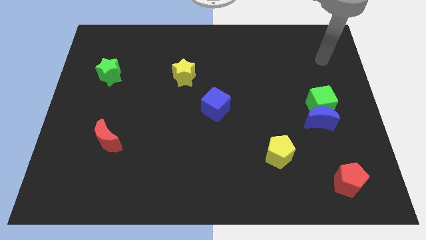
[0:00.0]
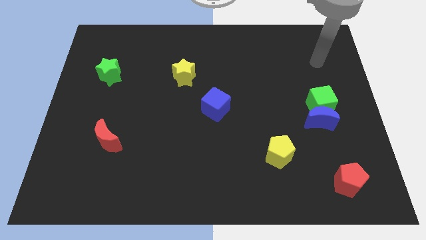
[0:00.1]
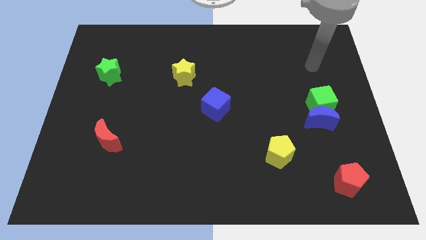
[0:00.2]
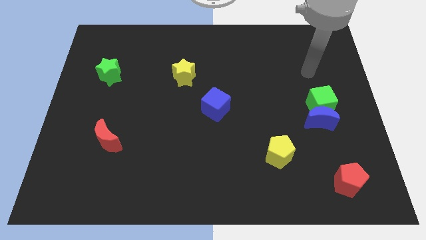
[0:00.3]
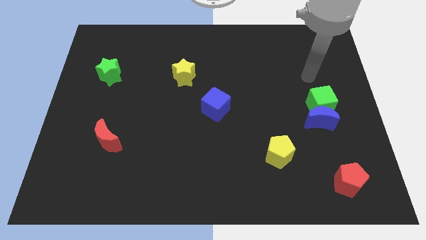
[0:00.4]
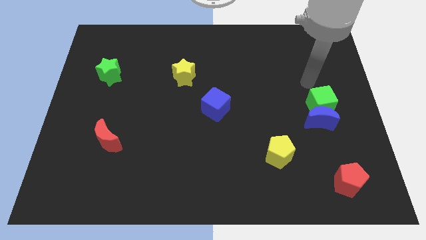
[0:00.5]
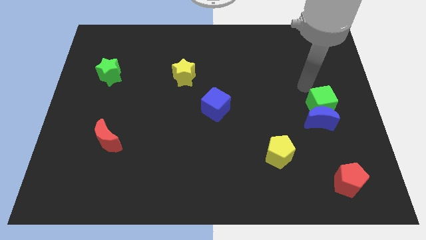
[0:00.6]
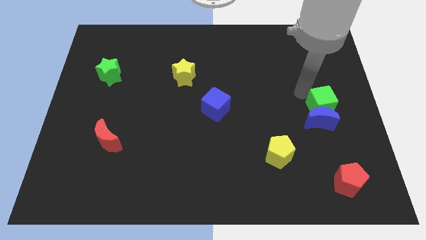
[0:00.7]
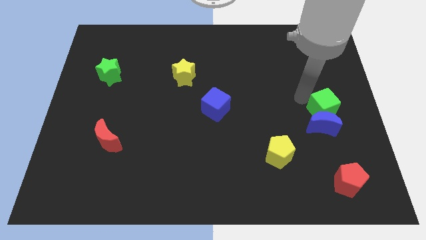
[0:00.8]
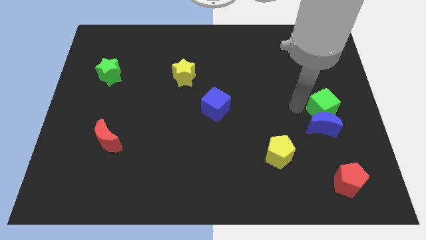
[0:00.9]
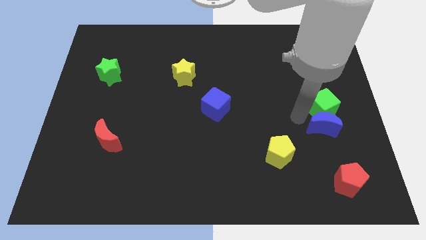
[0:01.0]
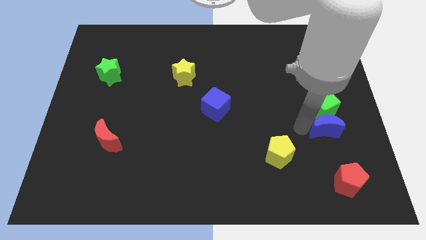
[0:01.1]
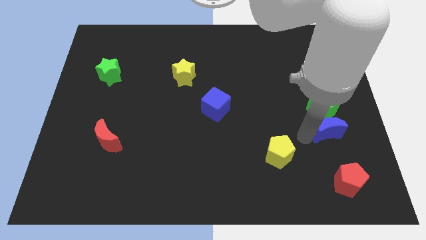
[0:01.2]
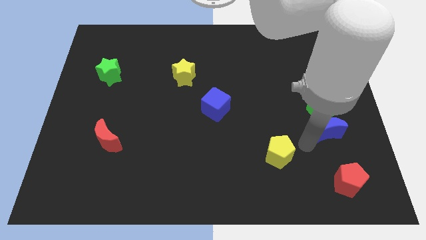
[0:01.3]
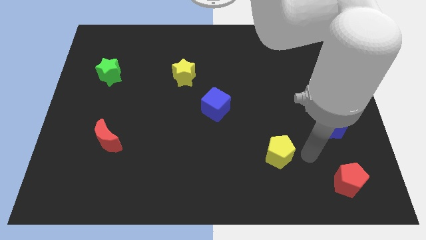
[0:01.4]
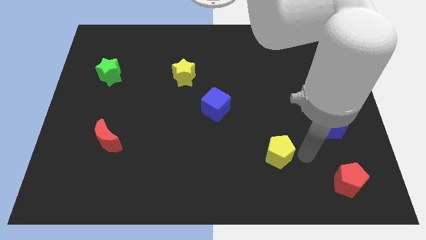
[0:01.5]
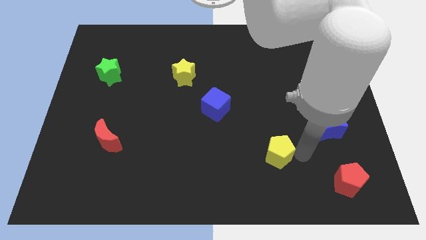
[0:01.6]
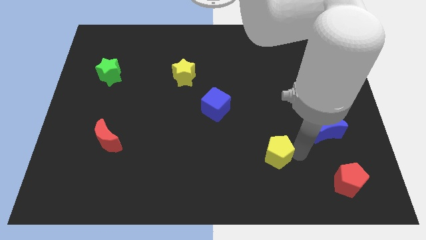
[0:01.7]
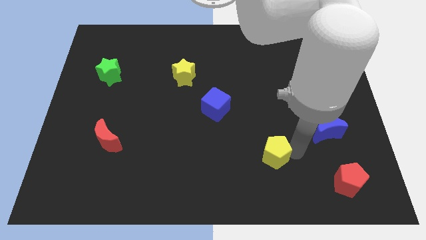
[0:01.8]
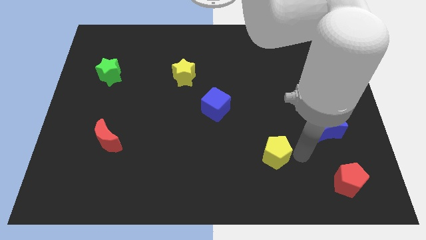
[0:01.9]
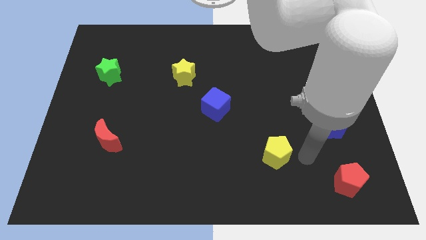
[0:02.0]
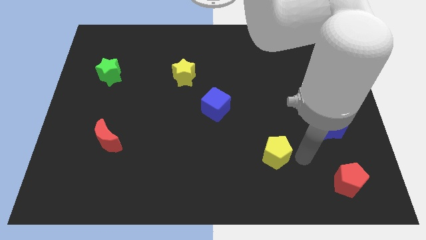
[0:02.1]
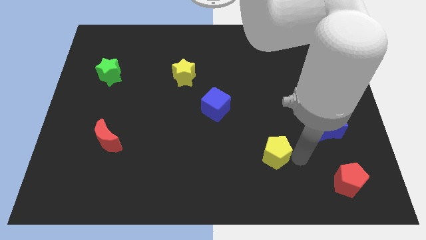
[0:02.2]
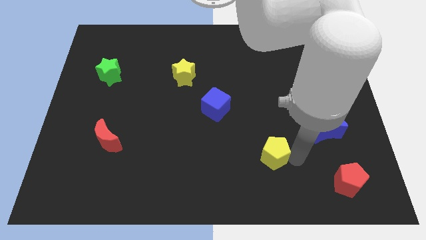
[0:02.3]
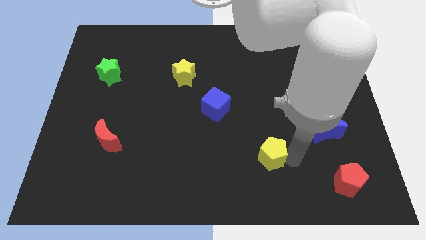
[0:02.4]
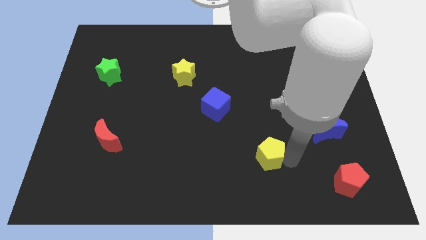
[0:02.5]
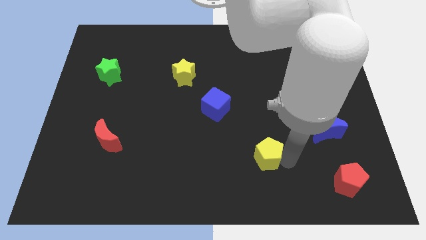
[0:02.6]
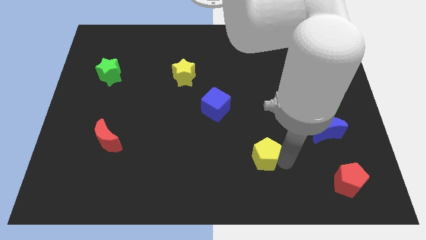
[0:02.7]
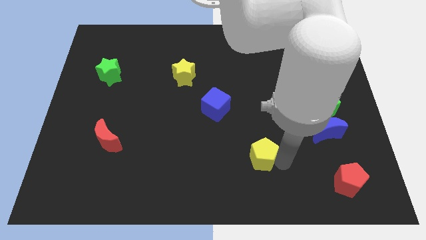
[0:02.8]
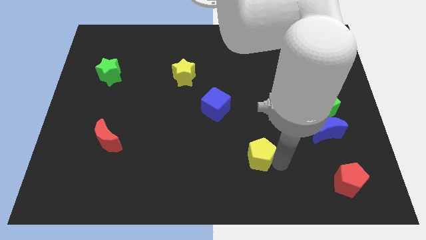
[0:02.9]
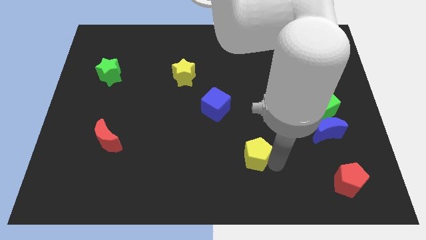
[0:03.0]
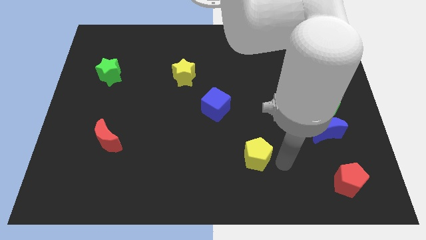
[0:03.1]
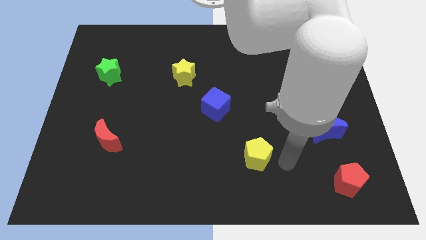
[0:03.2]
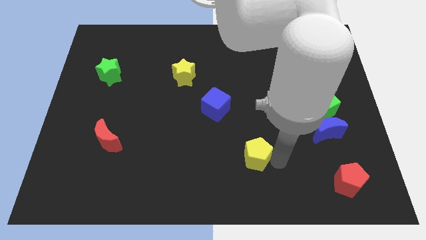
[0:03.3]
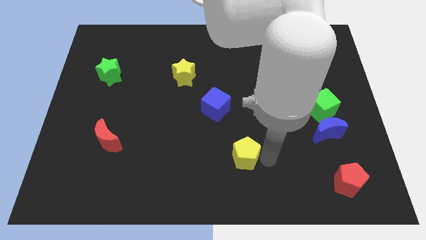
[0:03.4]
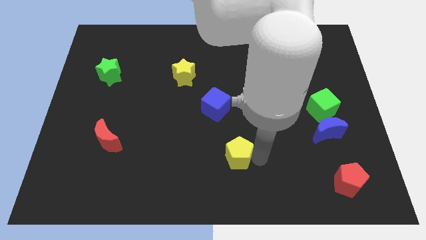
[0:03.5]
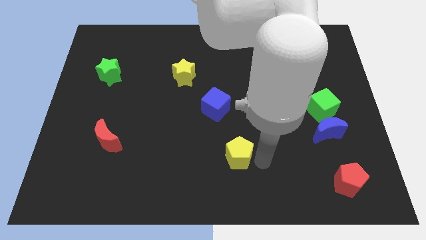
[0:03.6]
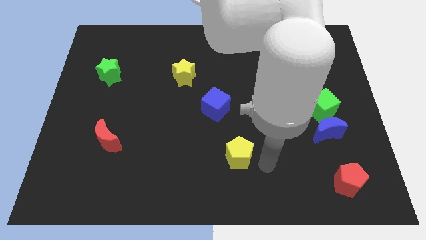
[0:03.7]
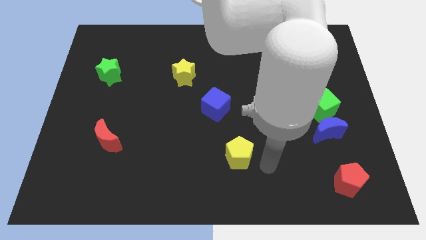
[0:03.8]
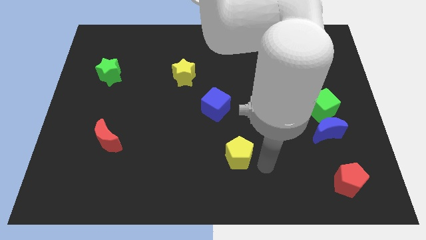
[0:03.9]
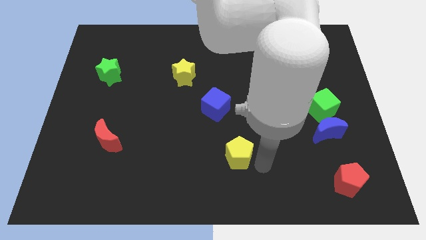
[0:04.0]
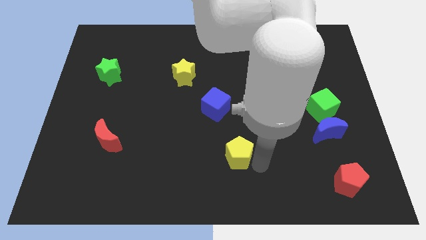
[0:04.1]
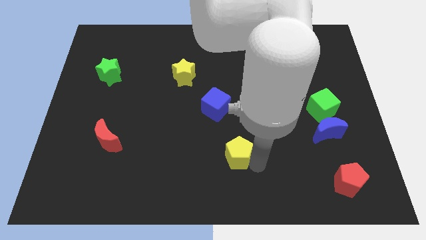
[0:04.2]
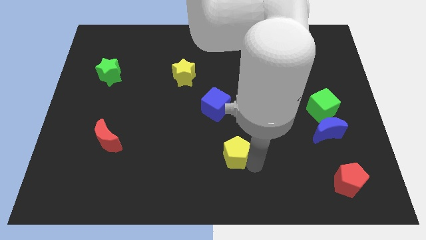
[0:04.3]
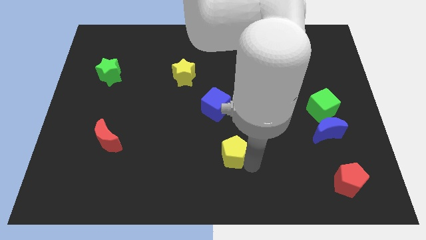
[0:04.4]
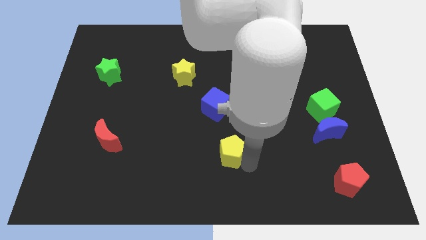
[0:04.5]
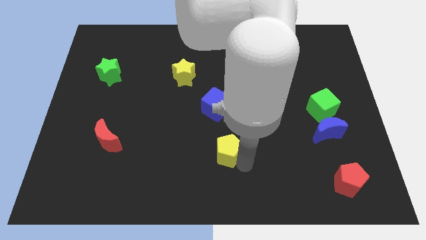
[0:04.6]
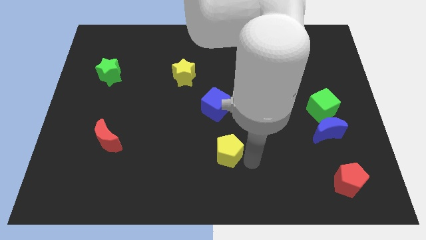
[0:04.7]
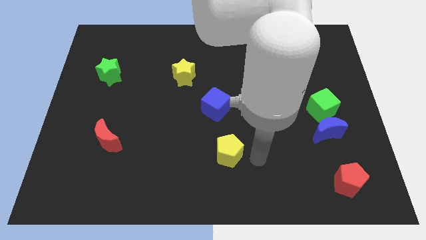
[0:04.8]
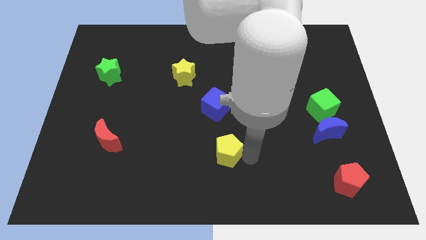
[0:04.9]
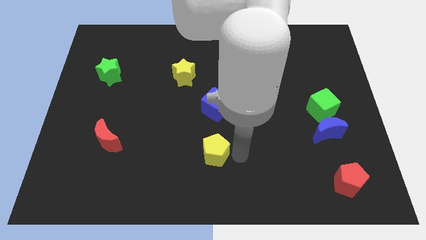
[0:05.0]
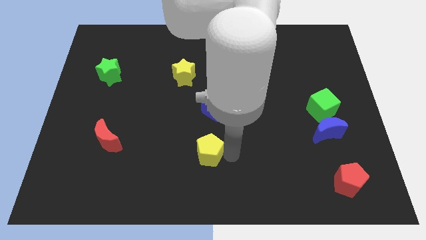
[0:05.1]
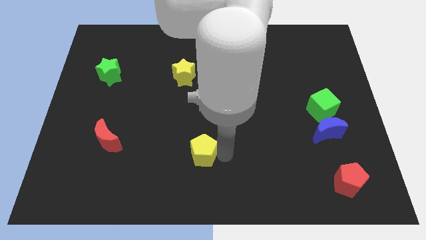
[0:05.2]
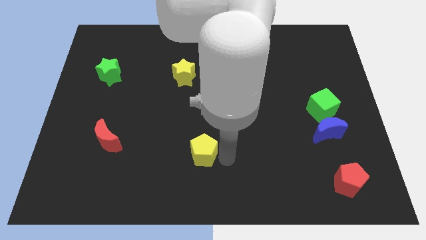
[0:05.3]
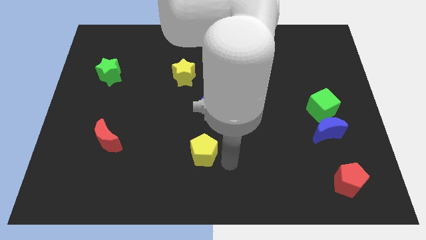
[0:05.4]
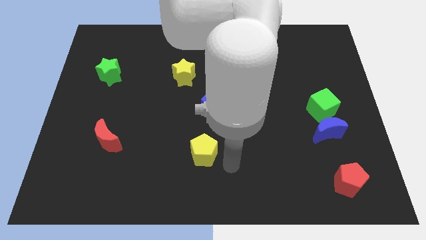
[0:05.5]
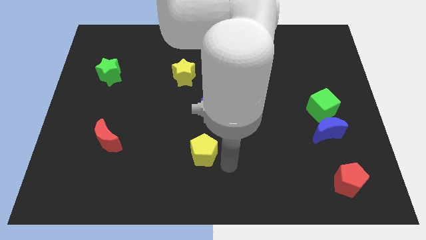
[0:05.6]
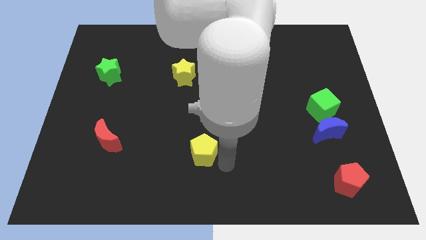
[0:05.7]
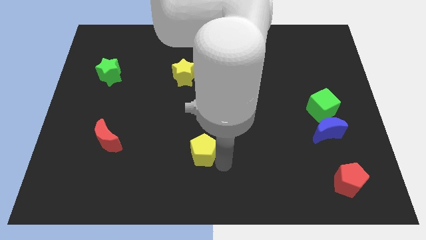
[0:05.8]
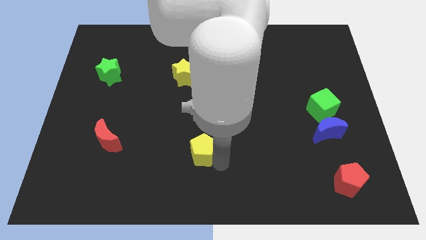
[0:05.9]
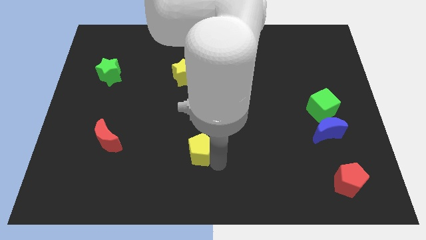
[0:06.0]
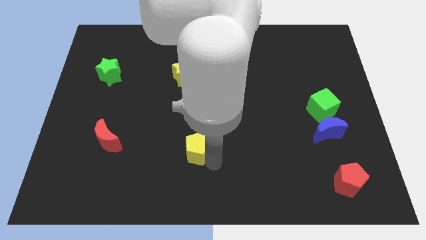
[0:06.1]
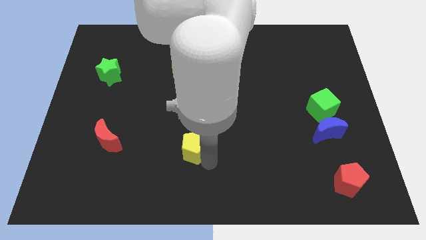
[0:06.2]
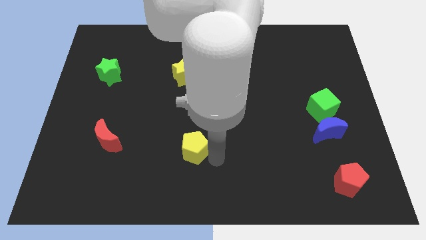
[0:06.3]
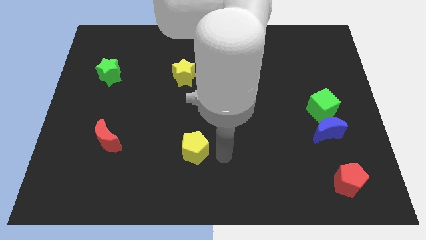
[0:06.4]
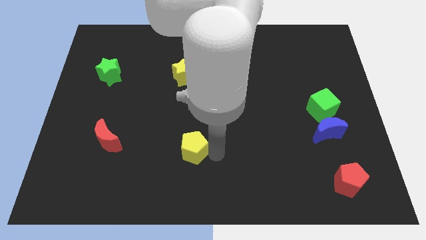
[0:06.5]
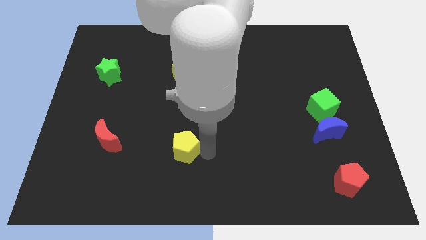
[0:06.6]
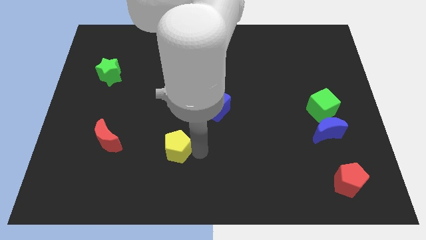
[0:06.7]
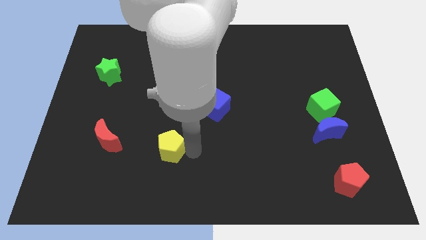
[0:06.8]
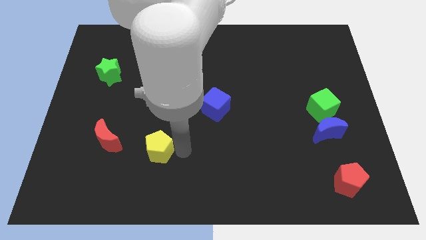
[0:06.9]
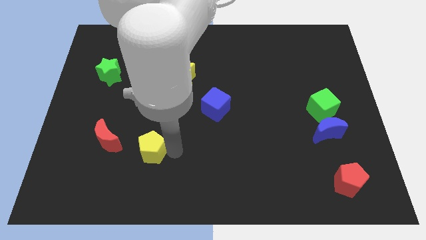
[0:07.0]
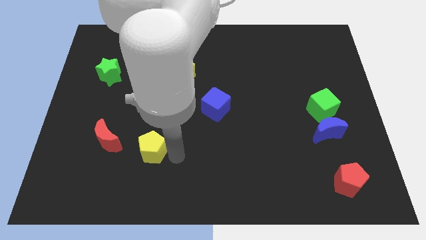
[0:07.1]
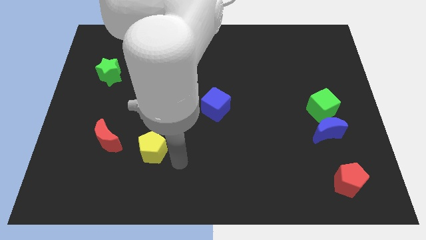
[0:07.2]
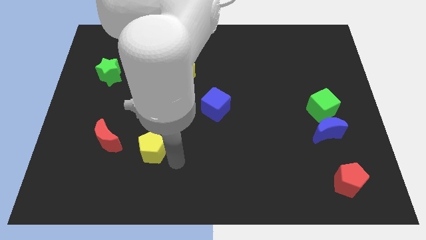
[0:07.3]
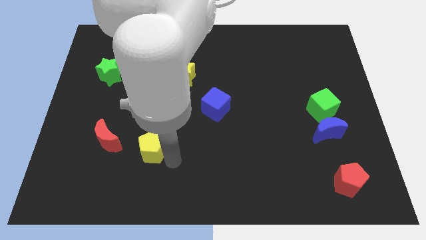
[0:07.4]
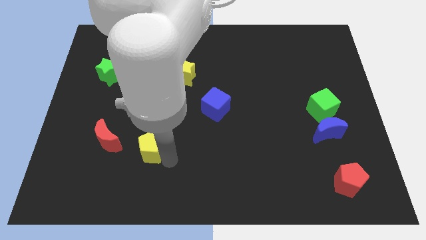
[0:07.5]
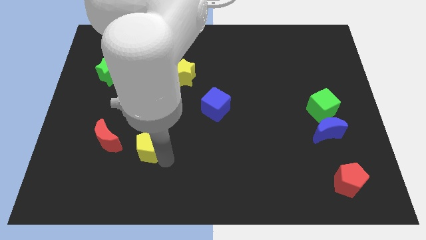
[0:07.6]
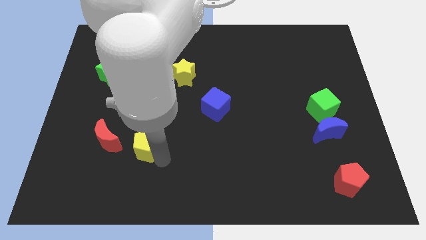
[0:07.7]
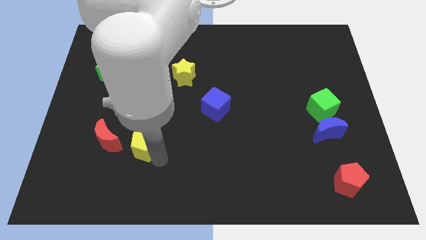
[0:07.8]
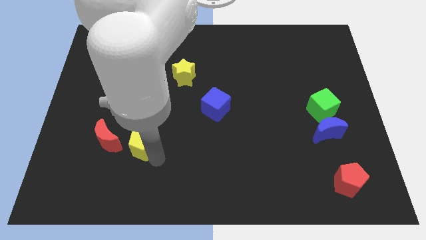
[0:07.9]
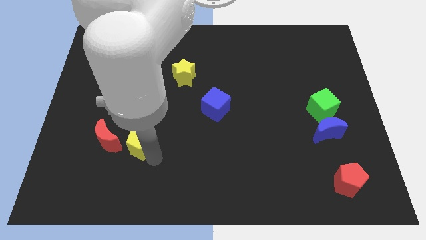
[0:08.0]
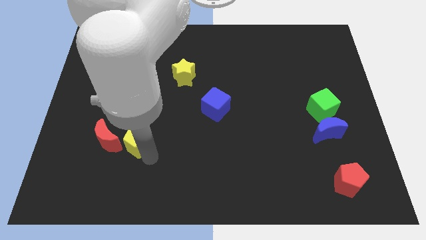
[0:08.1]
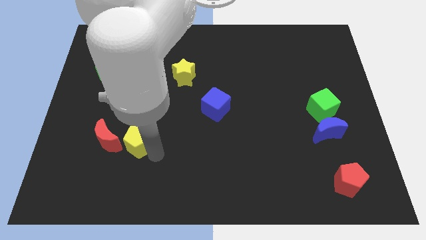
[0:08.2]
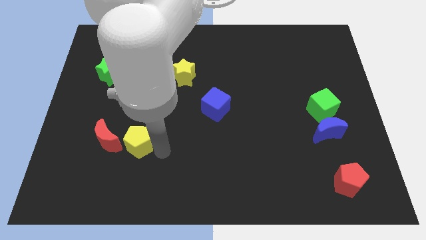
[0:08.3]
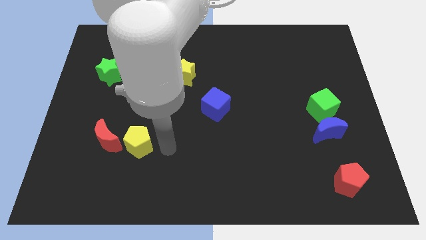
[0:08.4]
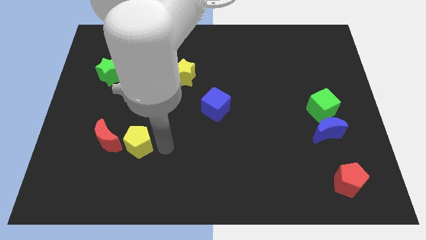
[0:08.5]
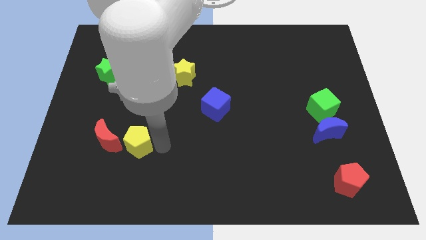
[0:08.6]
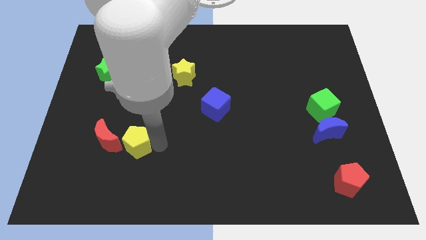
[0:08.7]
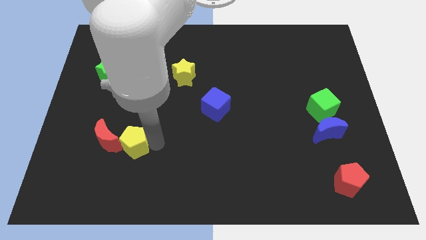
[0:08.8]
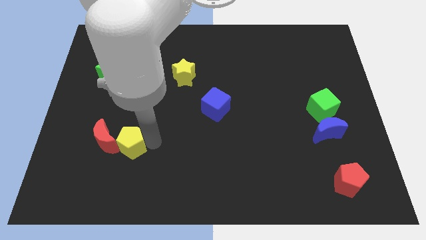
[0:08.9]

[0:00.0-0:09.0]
push the yellow pentagon next to the red moon
